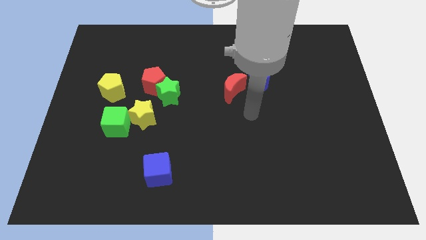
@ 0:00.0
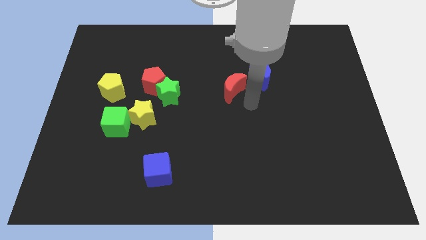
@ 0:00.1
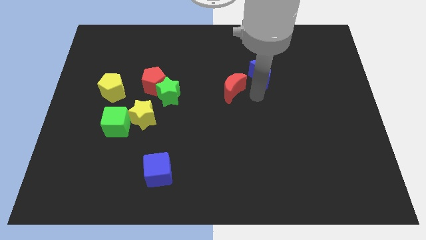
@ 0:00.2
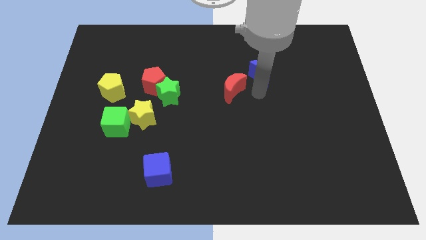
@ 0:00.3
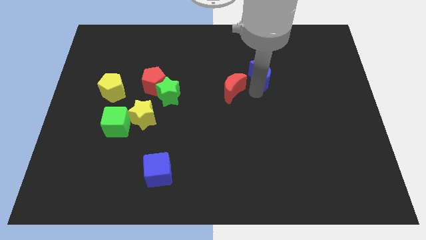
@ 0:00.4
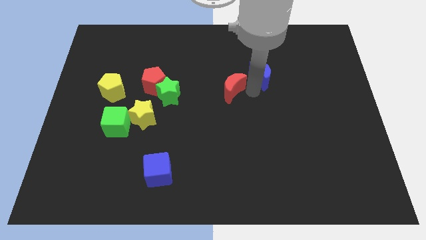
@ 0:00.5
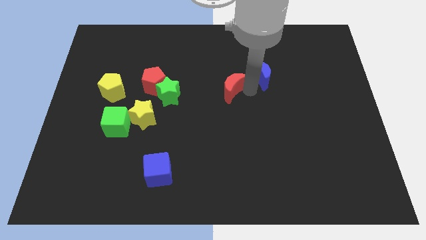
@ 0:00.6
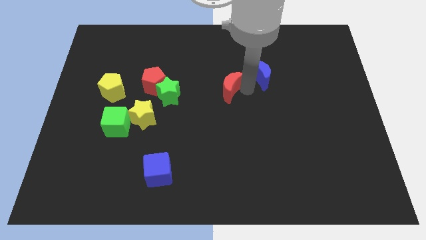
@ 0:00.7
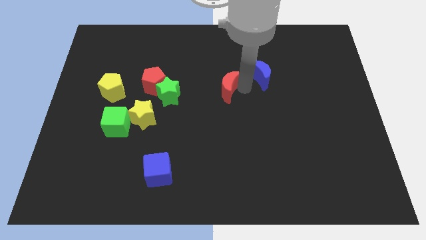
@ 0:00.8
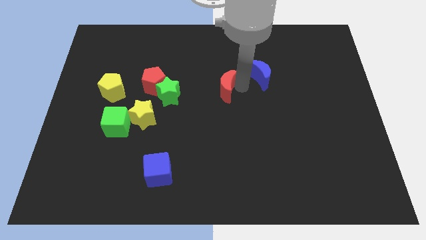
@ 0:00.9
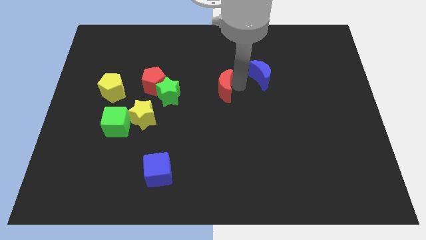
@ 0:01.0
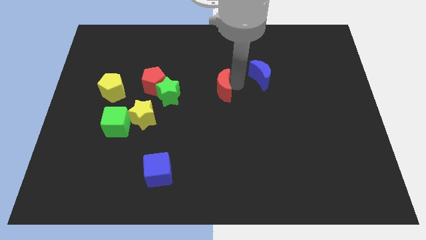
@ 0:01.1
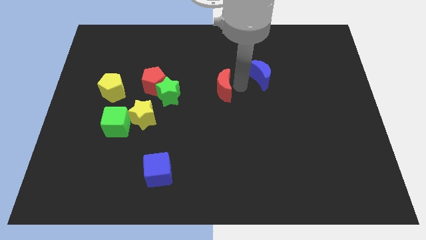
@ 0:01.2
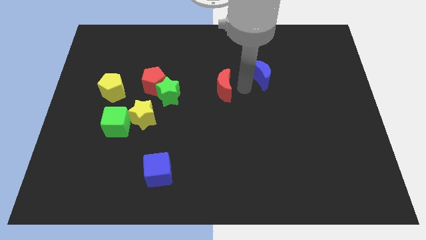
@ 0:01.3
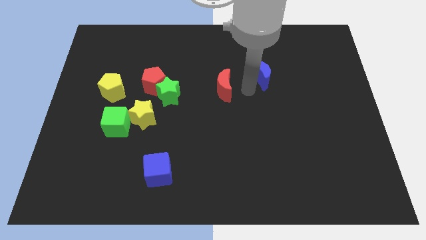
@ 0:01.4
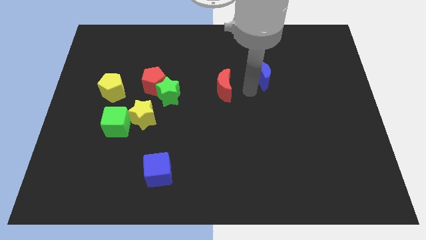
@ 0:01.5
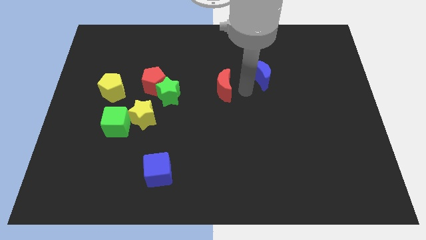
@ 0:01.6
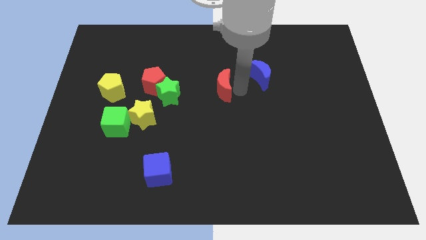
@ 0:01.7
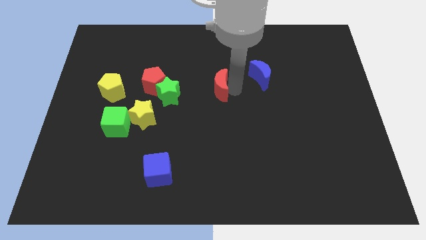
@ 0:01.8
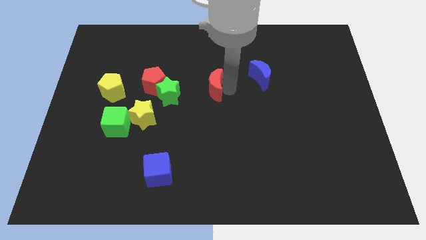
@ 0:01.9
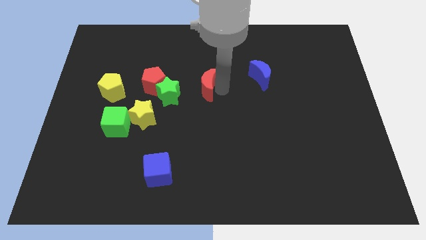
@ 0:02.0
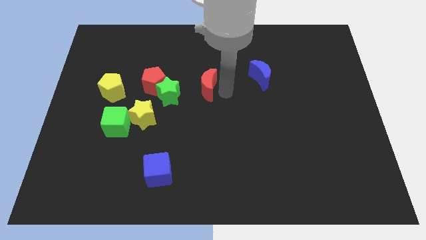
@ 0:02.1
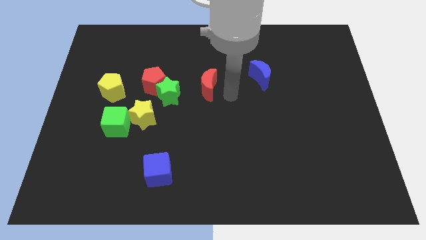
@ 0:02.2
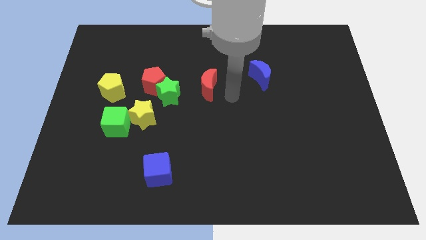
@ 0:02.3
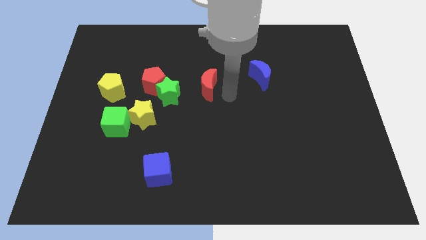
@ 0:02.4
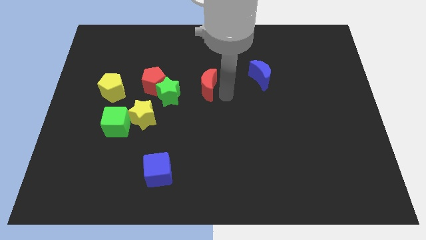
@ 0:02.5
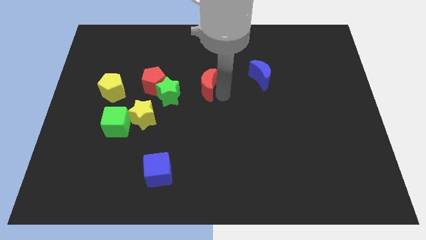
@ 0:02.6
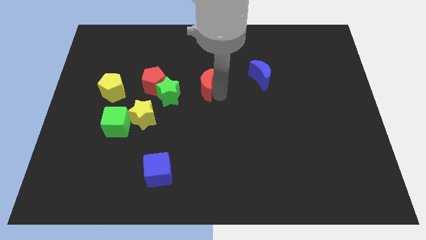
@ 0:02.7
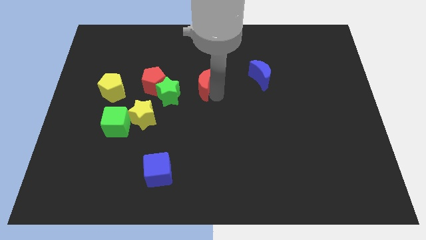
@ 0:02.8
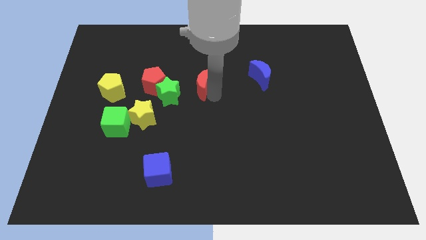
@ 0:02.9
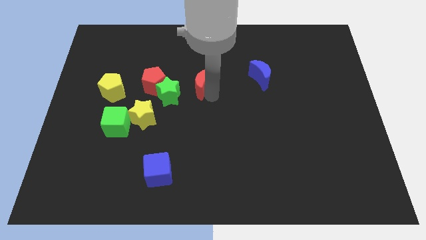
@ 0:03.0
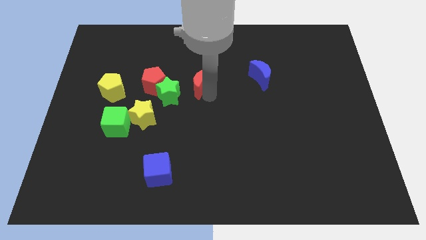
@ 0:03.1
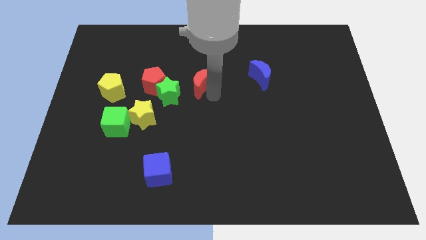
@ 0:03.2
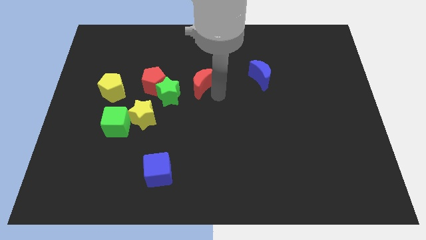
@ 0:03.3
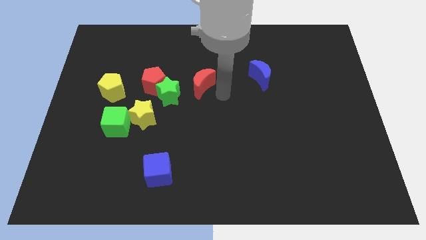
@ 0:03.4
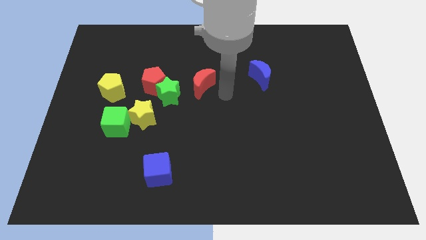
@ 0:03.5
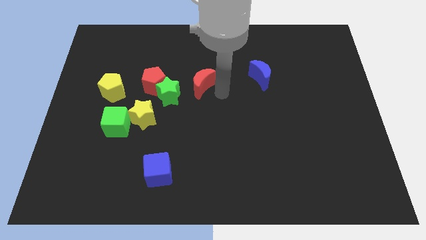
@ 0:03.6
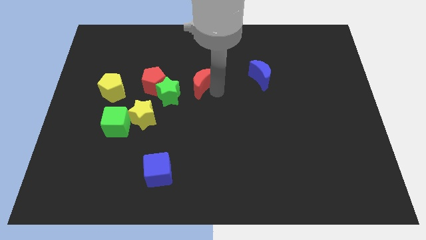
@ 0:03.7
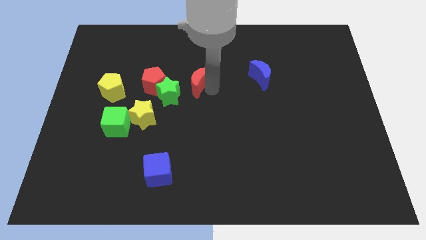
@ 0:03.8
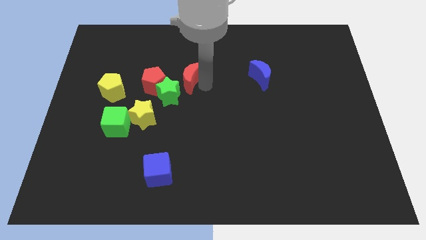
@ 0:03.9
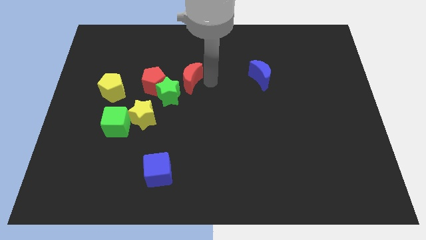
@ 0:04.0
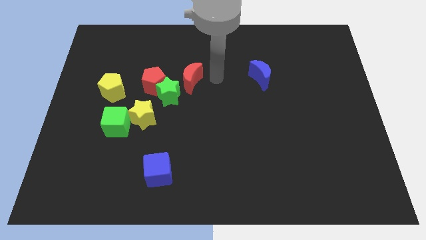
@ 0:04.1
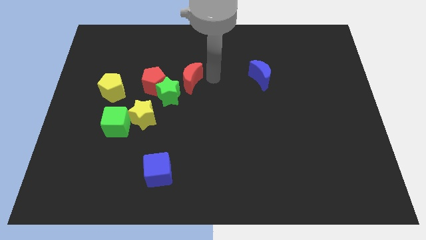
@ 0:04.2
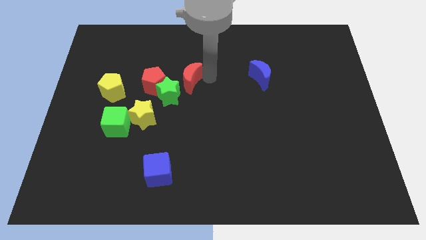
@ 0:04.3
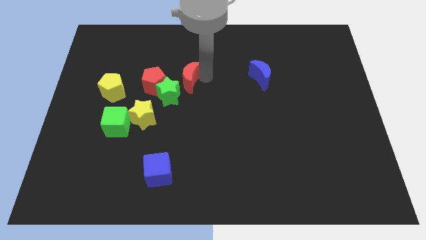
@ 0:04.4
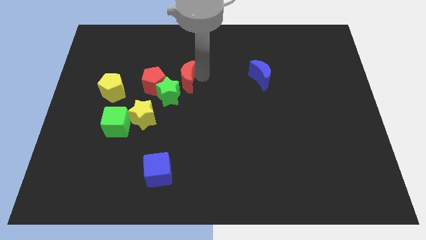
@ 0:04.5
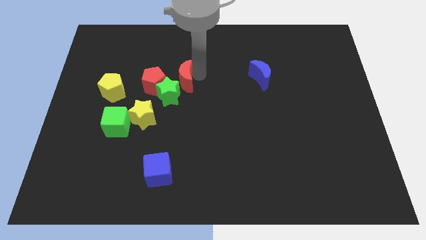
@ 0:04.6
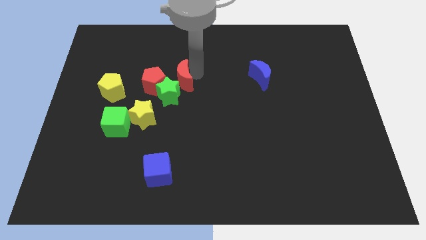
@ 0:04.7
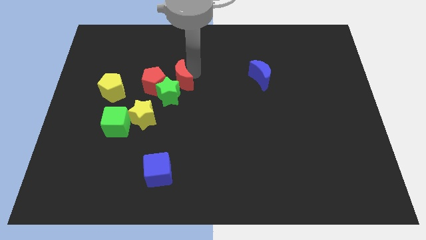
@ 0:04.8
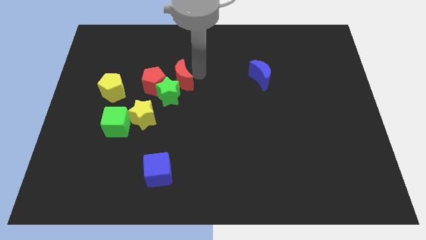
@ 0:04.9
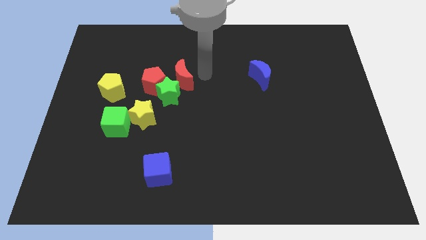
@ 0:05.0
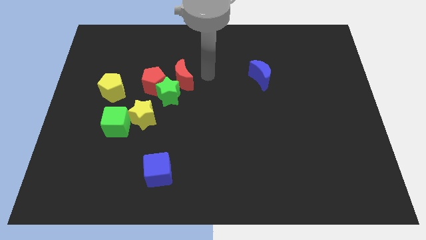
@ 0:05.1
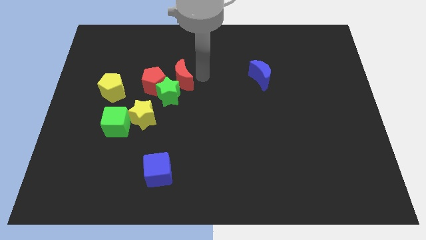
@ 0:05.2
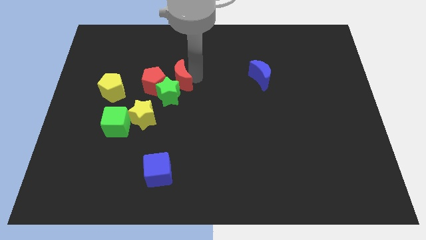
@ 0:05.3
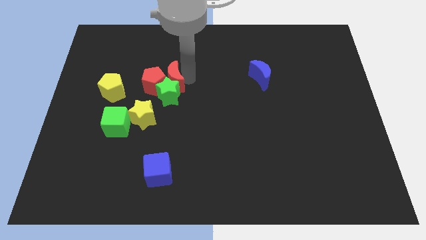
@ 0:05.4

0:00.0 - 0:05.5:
push the red moon towards the red pentagon

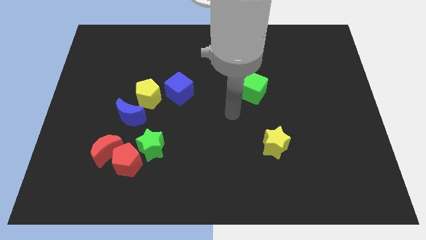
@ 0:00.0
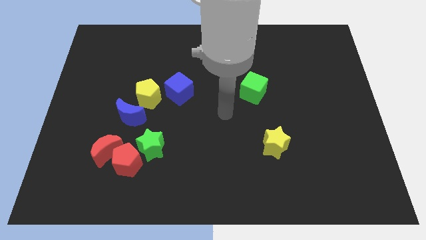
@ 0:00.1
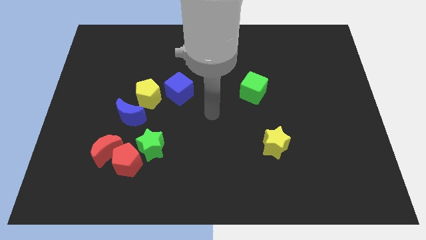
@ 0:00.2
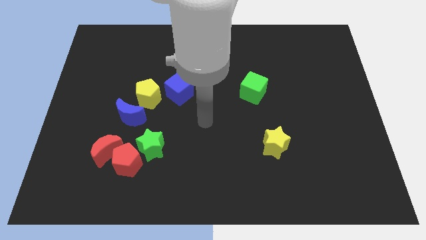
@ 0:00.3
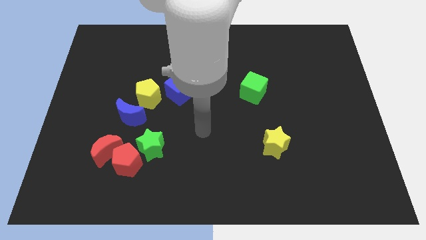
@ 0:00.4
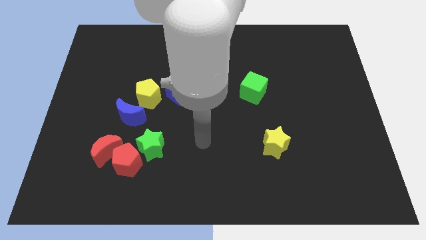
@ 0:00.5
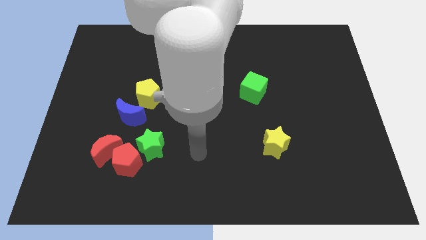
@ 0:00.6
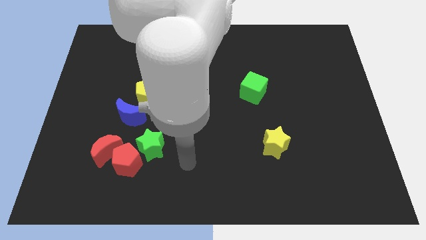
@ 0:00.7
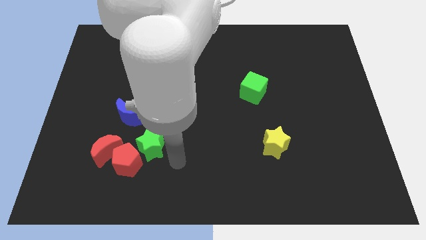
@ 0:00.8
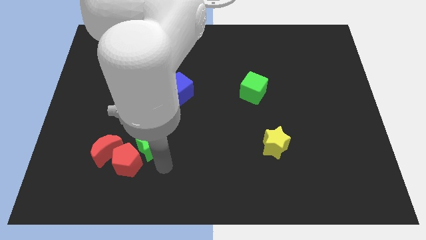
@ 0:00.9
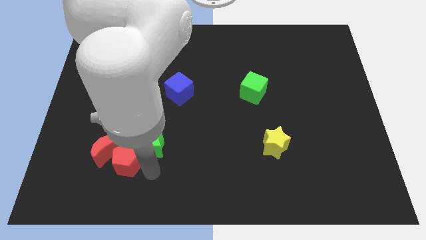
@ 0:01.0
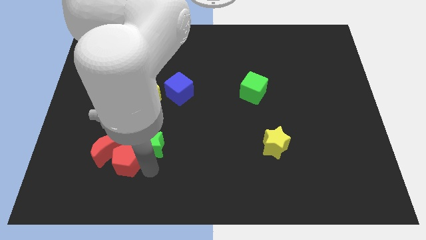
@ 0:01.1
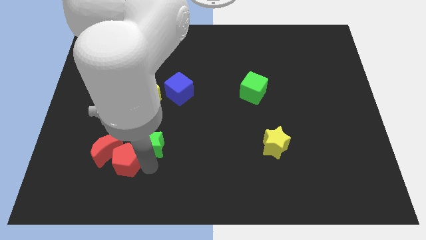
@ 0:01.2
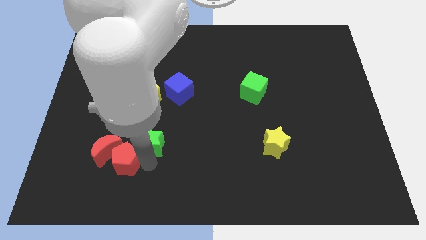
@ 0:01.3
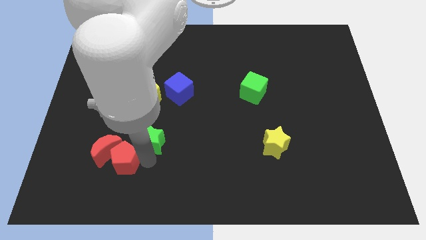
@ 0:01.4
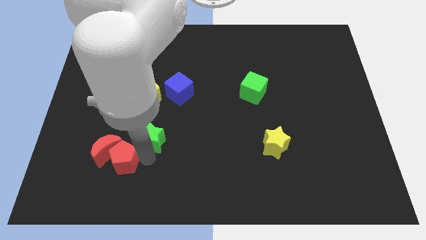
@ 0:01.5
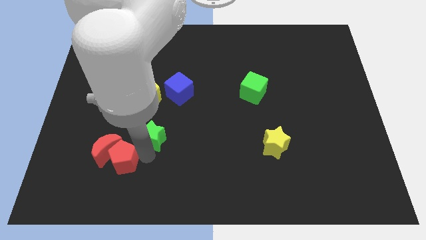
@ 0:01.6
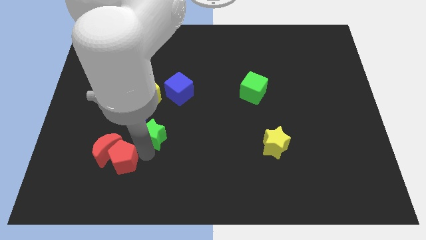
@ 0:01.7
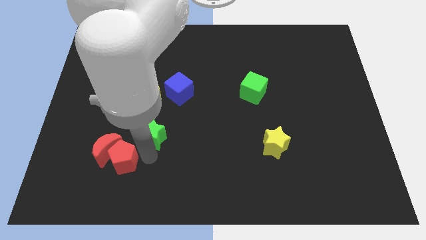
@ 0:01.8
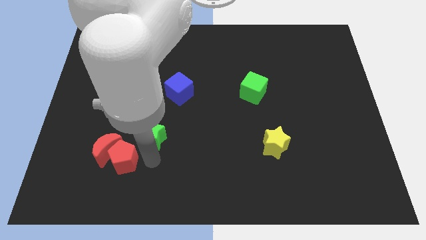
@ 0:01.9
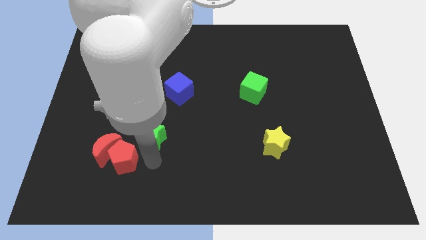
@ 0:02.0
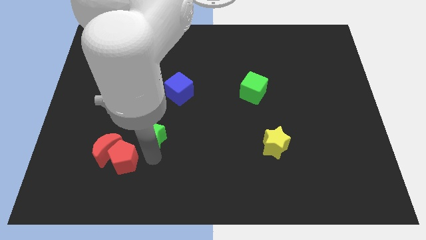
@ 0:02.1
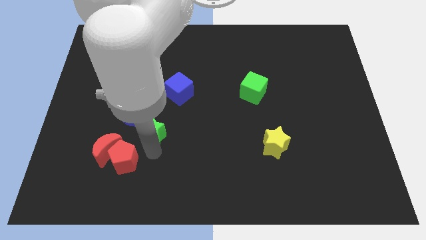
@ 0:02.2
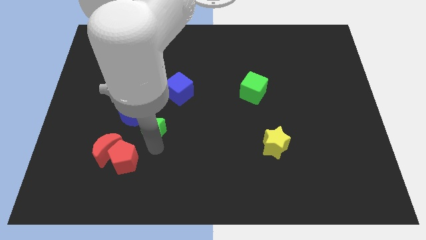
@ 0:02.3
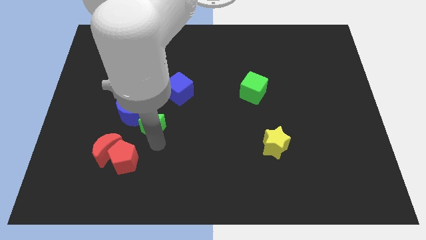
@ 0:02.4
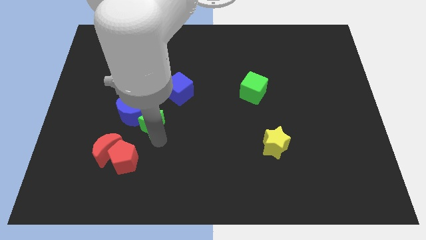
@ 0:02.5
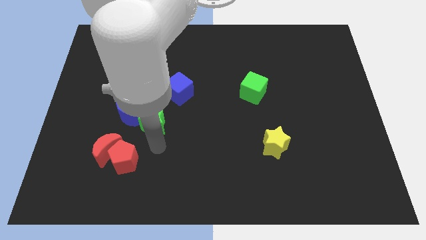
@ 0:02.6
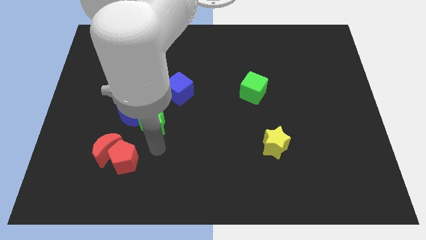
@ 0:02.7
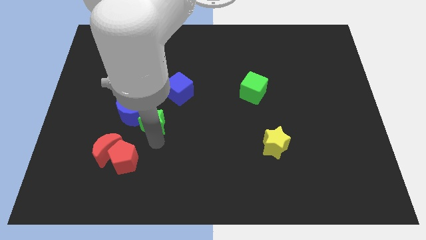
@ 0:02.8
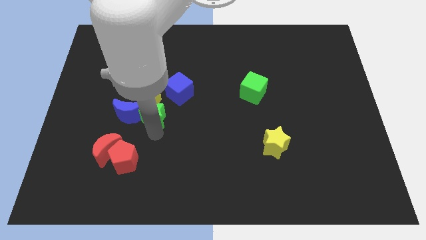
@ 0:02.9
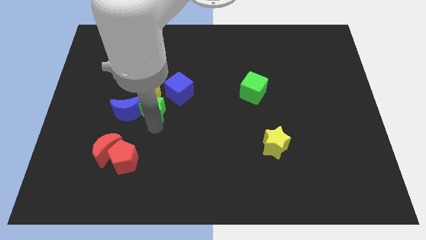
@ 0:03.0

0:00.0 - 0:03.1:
put the green star next to the yellow pentagon
